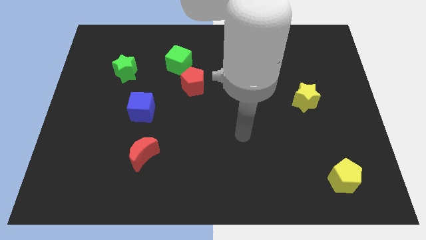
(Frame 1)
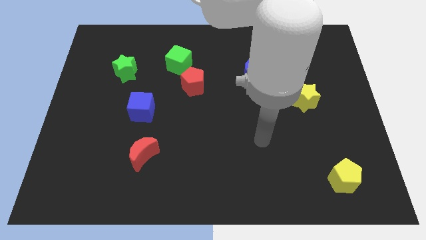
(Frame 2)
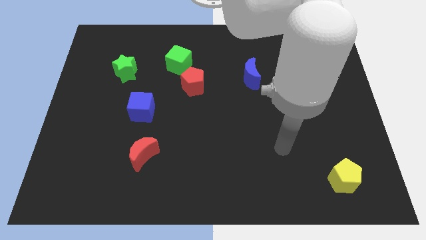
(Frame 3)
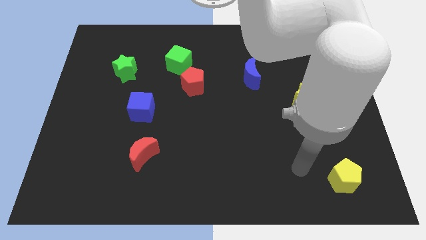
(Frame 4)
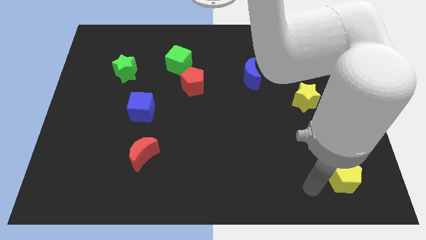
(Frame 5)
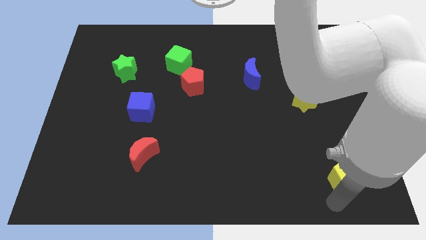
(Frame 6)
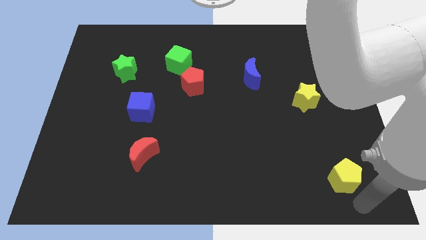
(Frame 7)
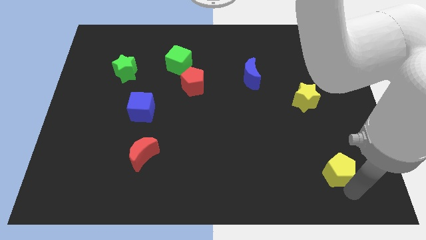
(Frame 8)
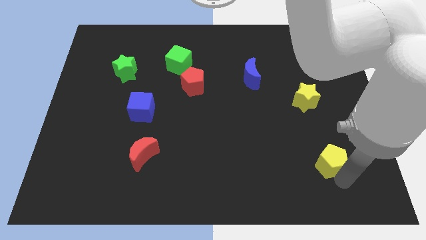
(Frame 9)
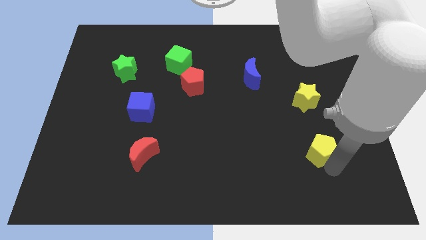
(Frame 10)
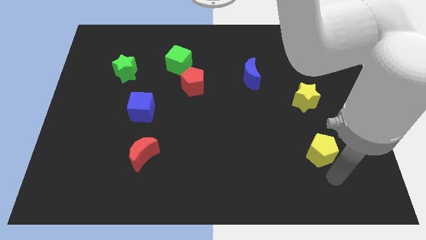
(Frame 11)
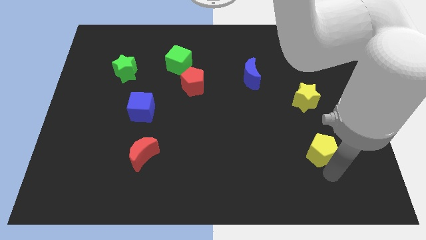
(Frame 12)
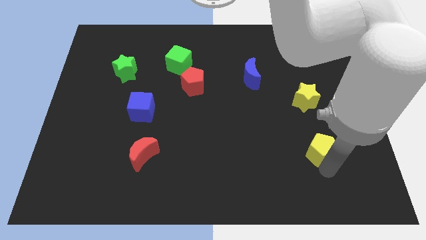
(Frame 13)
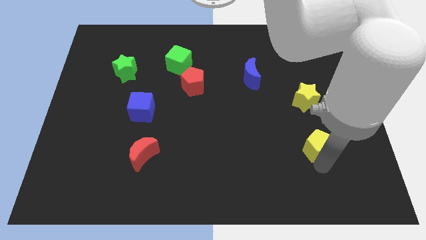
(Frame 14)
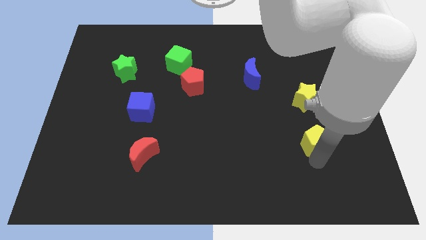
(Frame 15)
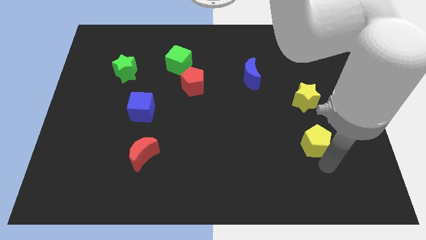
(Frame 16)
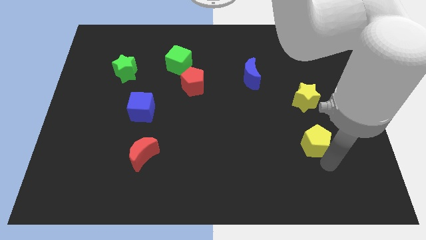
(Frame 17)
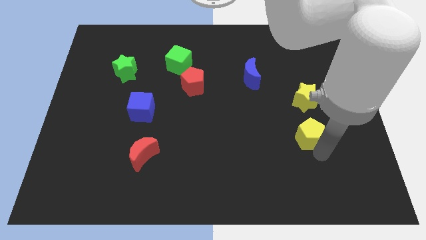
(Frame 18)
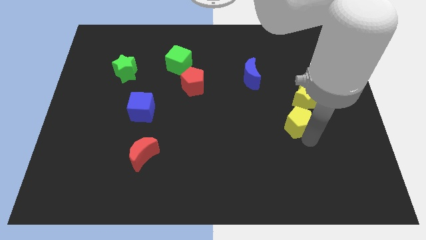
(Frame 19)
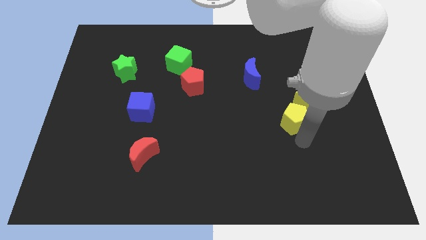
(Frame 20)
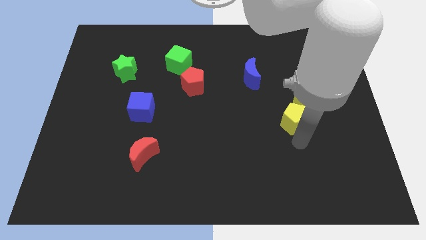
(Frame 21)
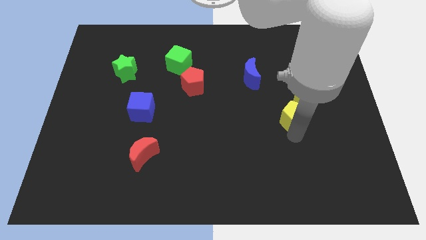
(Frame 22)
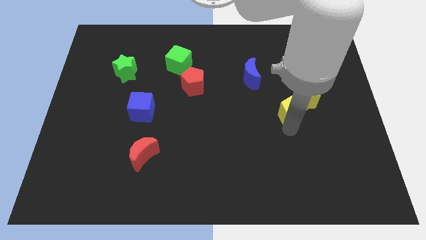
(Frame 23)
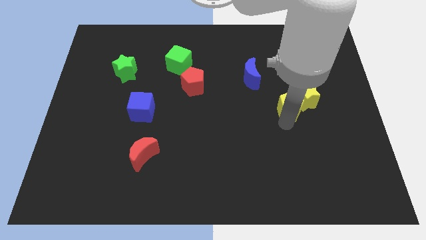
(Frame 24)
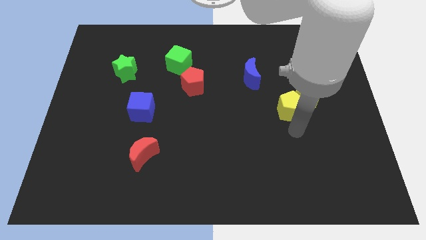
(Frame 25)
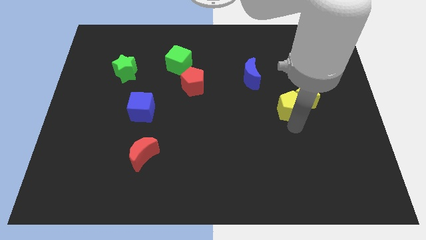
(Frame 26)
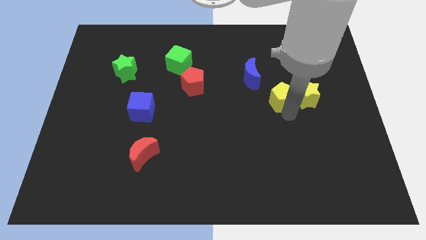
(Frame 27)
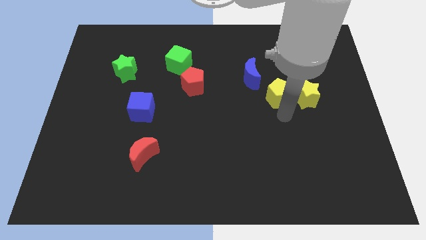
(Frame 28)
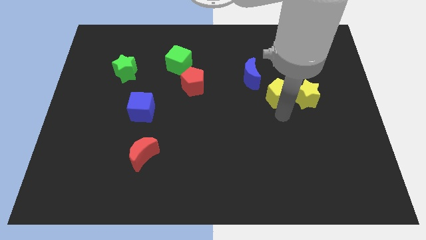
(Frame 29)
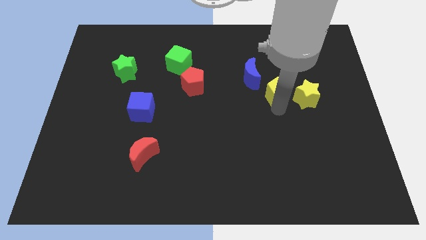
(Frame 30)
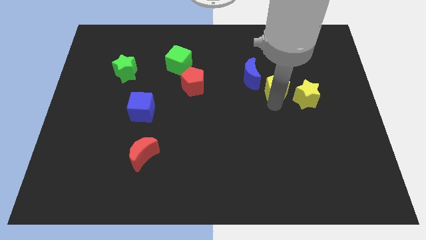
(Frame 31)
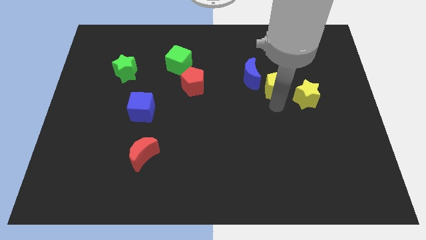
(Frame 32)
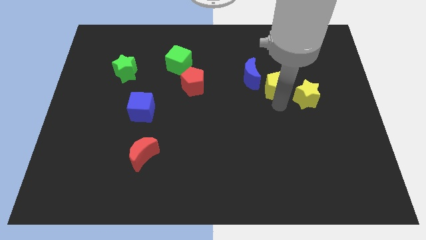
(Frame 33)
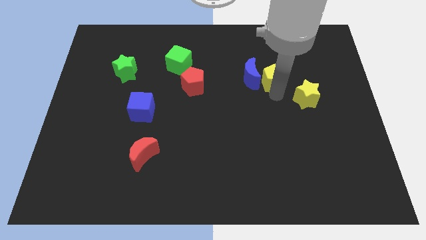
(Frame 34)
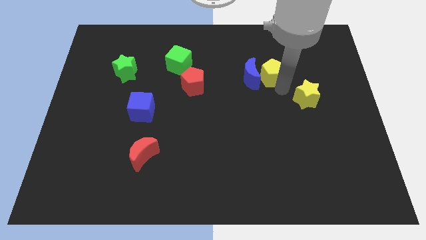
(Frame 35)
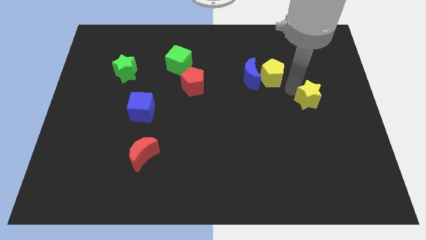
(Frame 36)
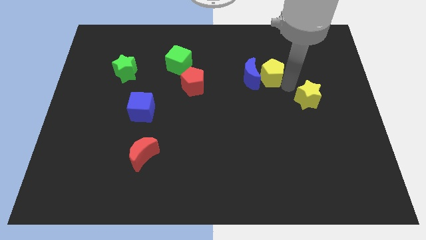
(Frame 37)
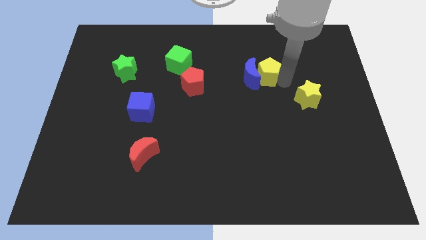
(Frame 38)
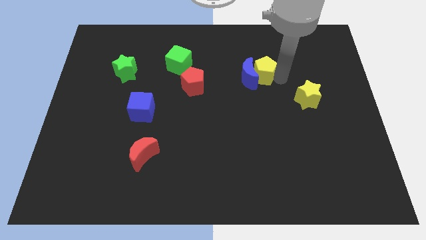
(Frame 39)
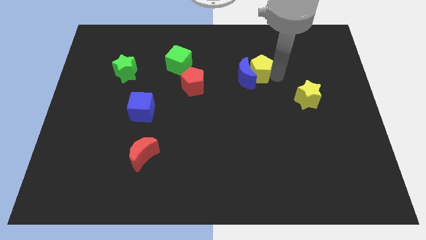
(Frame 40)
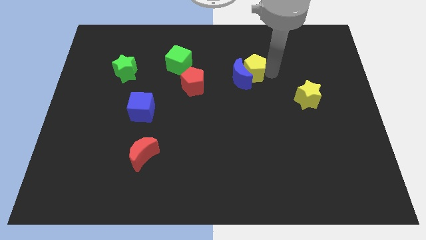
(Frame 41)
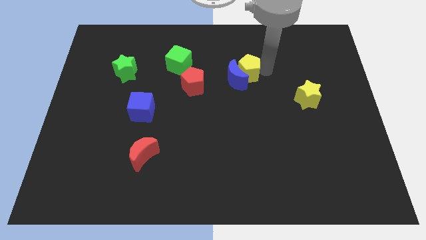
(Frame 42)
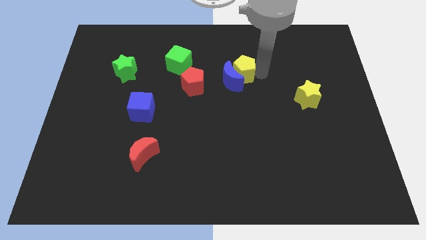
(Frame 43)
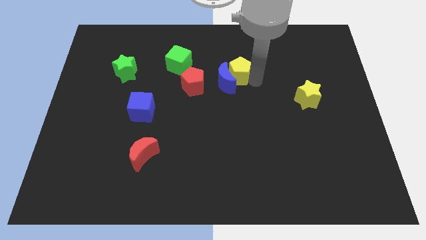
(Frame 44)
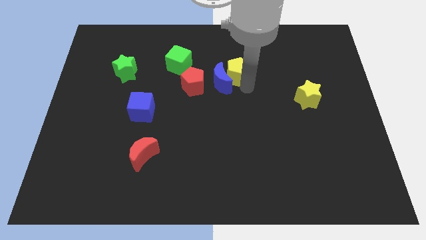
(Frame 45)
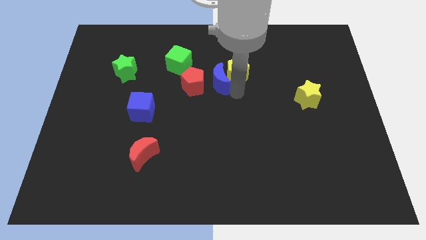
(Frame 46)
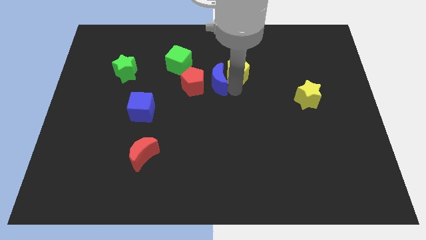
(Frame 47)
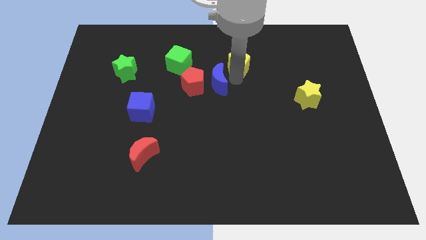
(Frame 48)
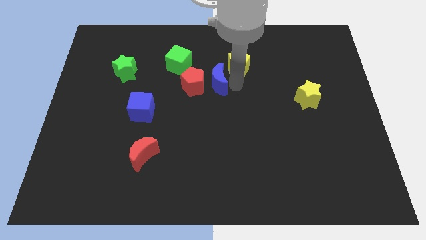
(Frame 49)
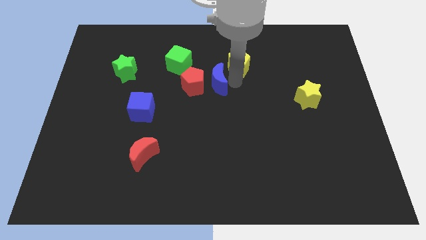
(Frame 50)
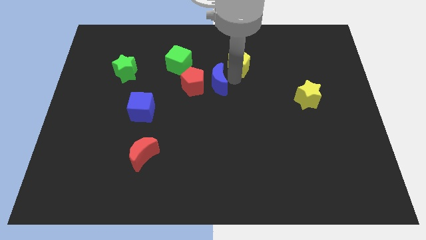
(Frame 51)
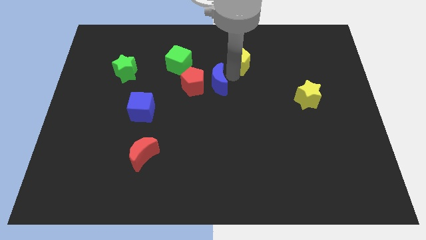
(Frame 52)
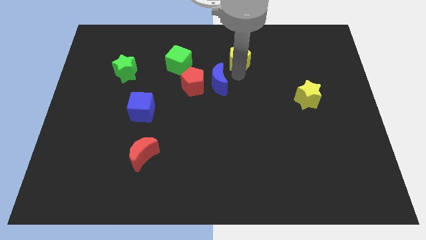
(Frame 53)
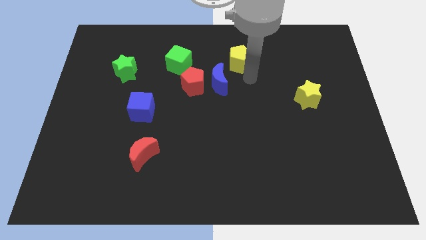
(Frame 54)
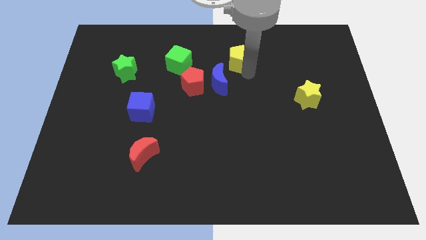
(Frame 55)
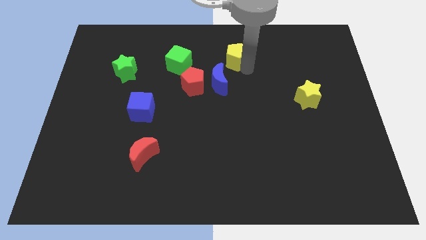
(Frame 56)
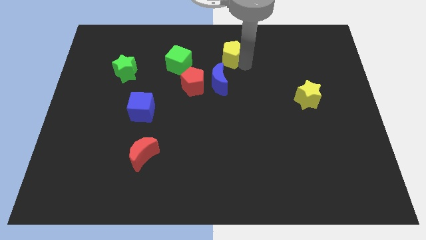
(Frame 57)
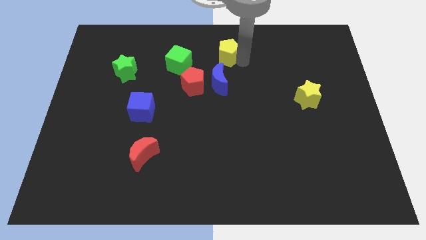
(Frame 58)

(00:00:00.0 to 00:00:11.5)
slide the yellow pentagon to the top

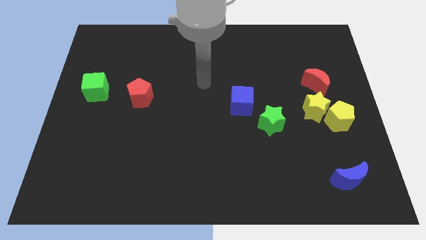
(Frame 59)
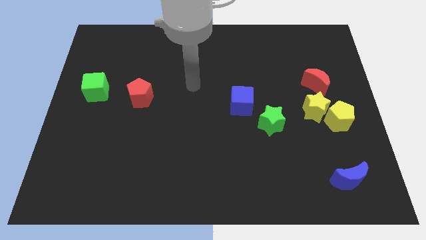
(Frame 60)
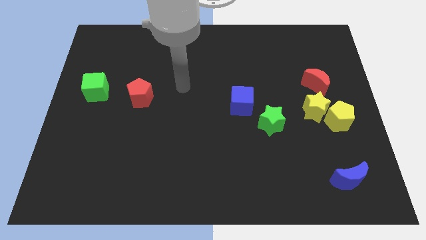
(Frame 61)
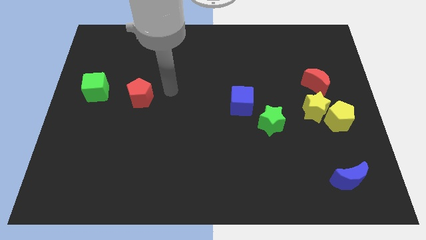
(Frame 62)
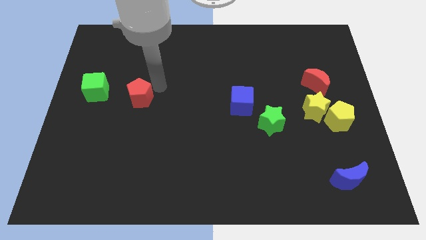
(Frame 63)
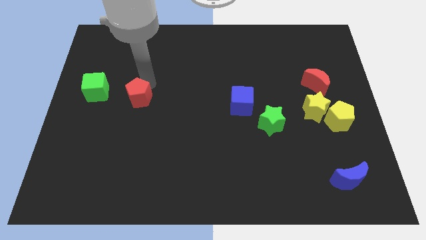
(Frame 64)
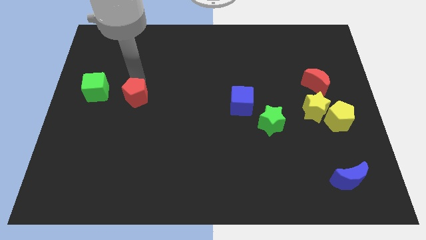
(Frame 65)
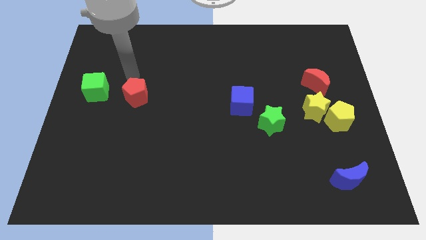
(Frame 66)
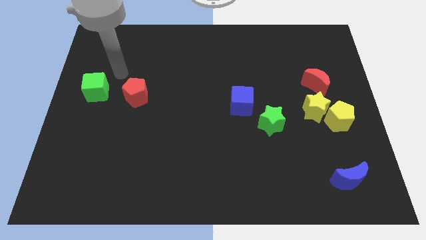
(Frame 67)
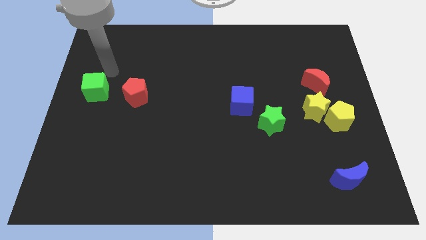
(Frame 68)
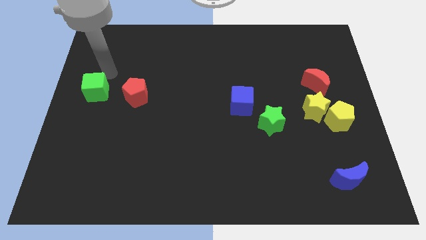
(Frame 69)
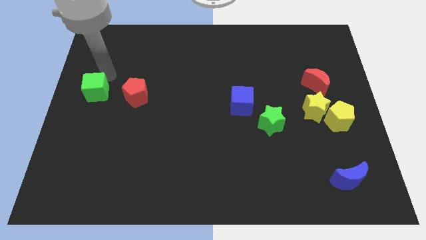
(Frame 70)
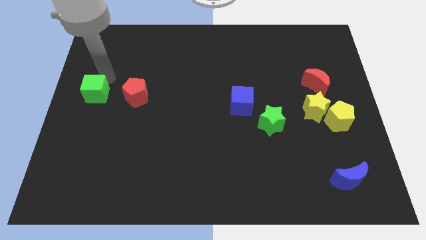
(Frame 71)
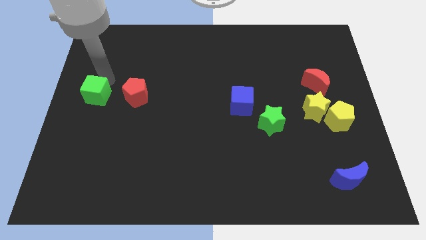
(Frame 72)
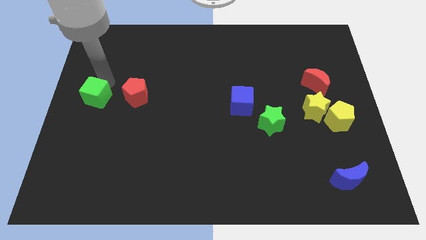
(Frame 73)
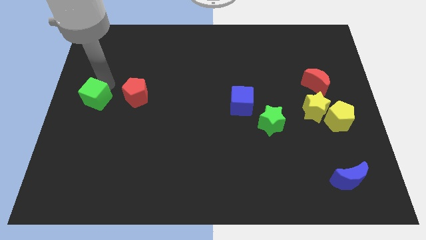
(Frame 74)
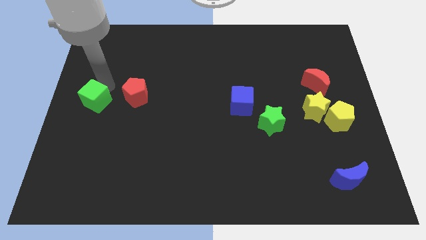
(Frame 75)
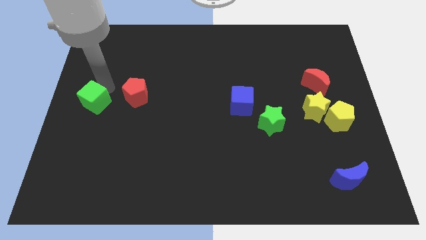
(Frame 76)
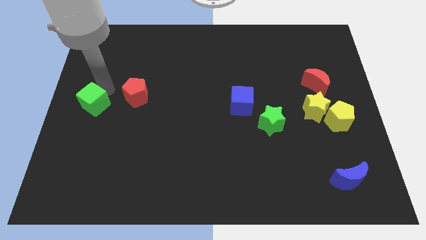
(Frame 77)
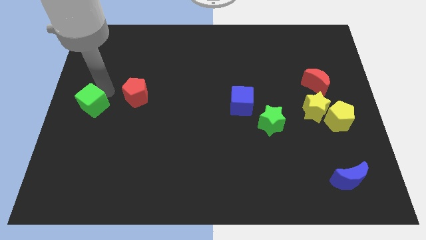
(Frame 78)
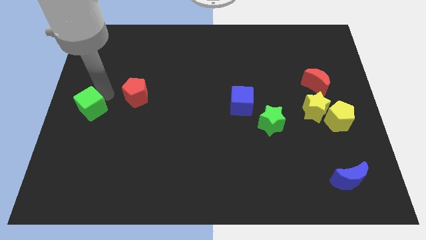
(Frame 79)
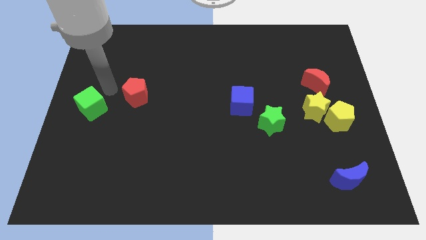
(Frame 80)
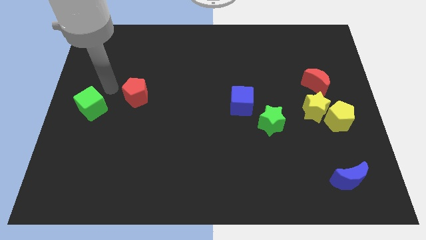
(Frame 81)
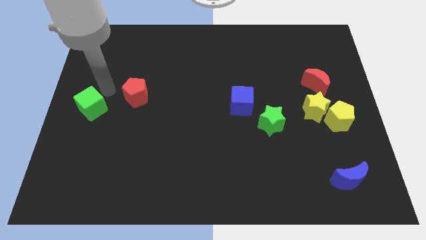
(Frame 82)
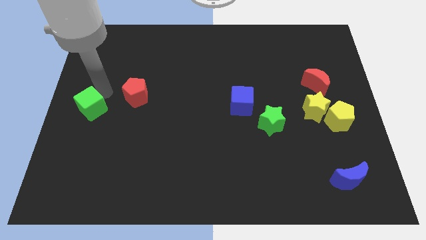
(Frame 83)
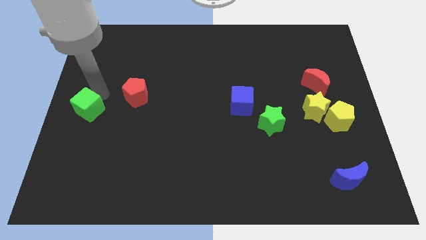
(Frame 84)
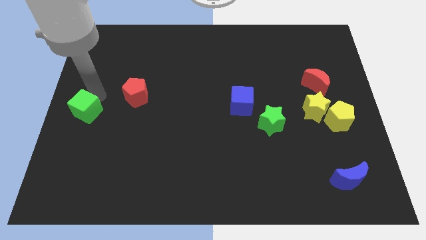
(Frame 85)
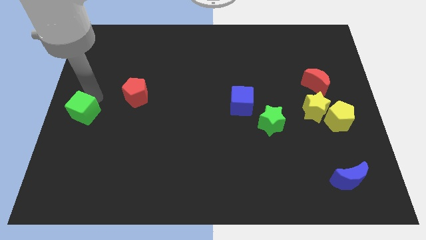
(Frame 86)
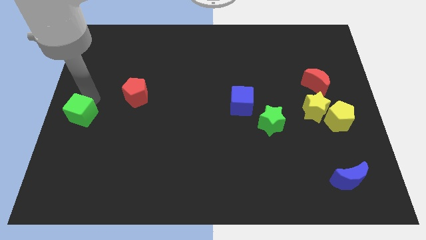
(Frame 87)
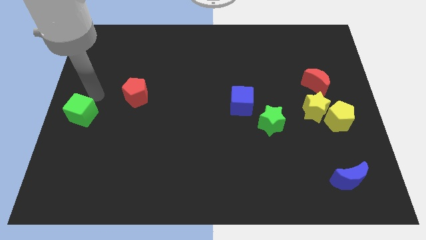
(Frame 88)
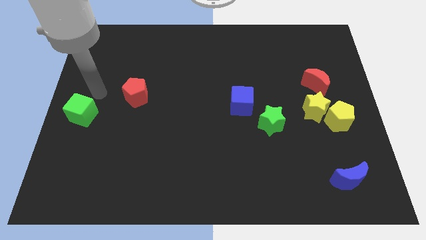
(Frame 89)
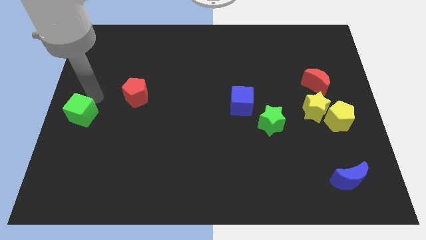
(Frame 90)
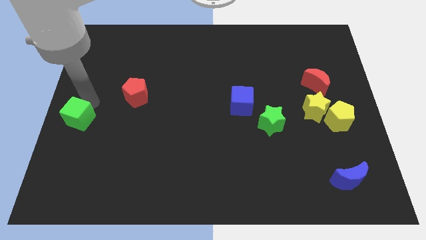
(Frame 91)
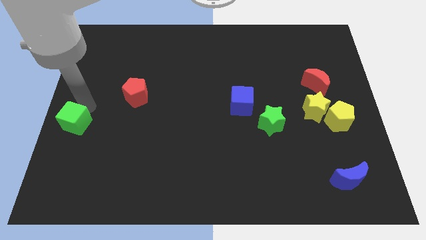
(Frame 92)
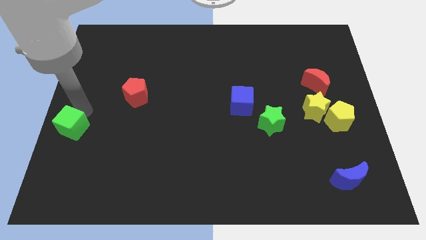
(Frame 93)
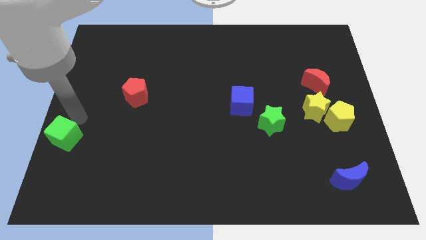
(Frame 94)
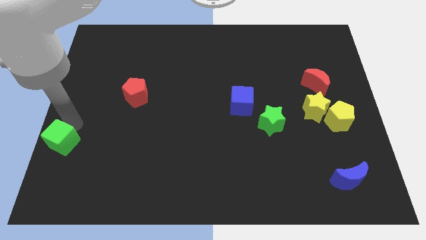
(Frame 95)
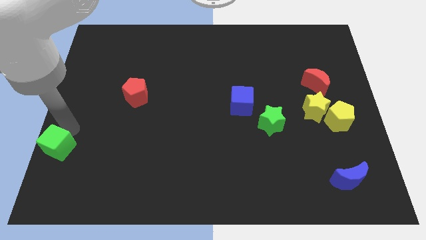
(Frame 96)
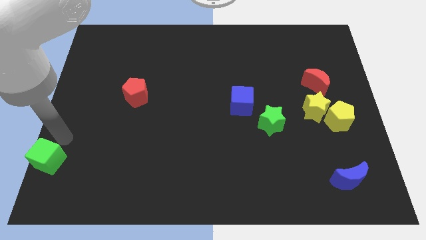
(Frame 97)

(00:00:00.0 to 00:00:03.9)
slide the green cube to the bottom left
